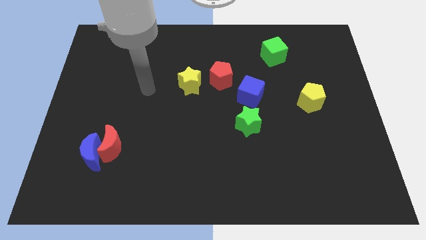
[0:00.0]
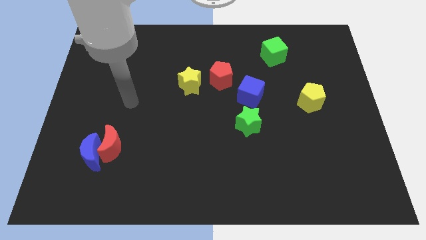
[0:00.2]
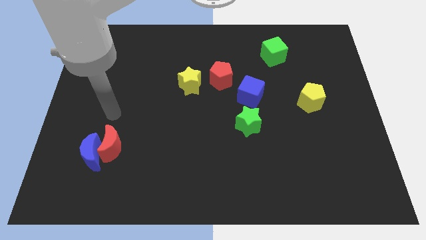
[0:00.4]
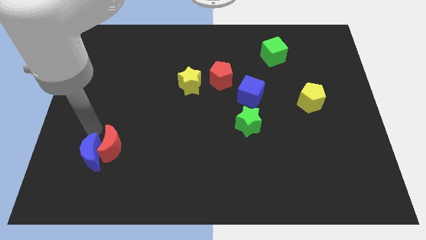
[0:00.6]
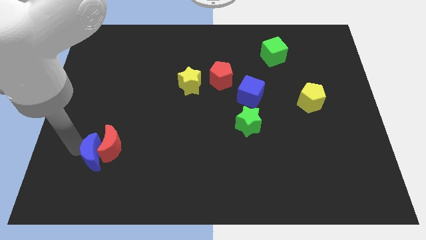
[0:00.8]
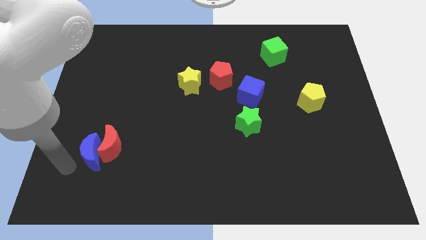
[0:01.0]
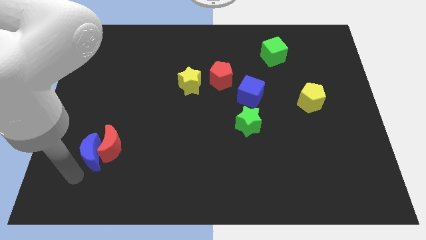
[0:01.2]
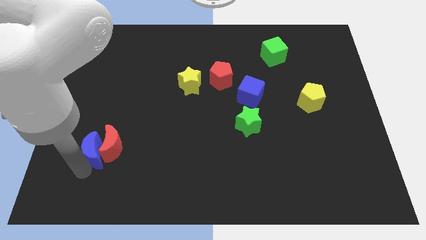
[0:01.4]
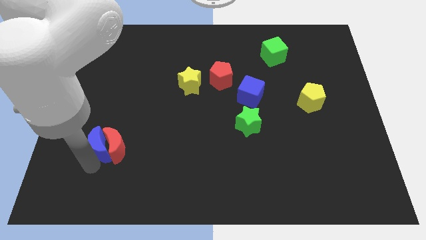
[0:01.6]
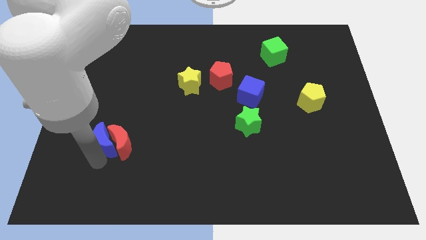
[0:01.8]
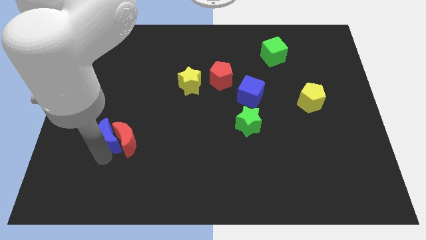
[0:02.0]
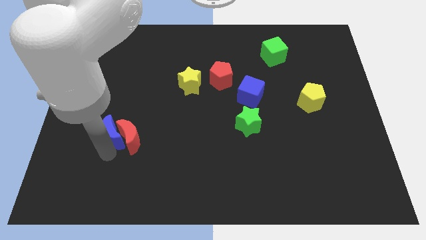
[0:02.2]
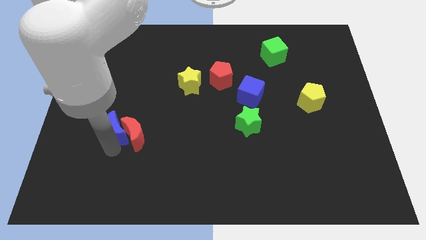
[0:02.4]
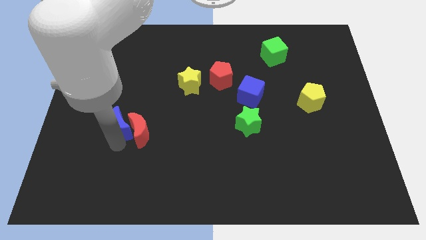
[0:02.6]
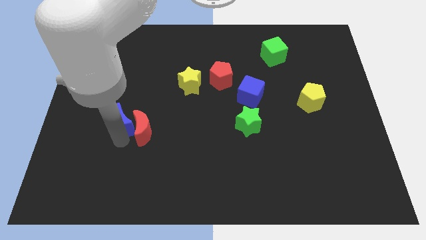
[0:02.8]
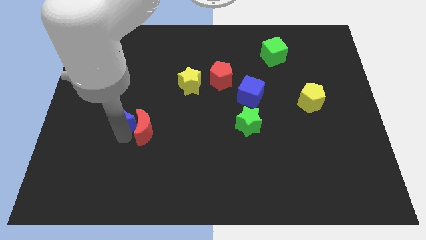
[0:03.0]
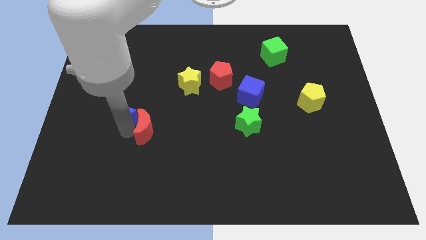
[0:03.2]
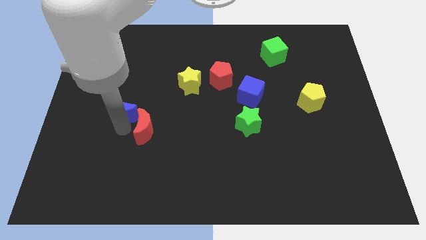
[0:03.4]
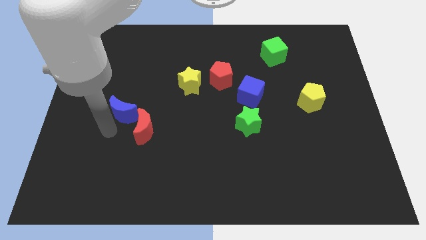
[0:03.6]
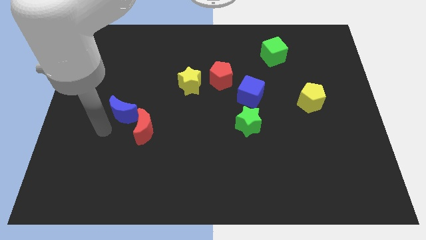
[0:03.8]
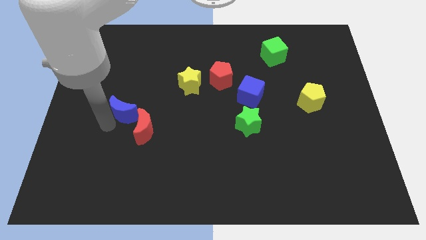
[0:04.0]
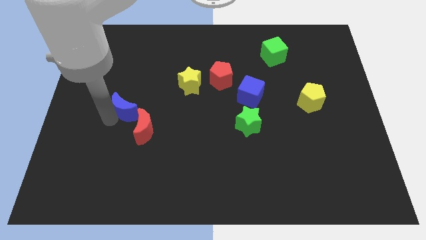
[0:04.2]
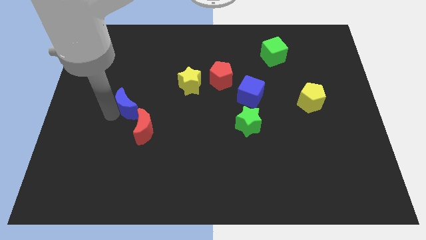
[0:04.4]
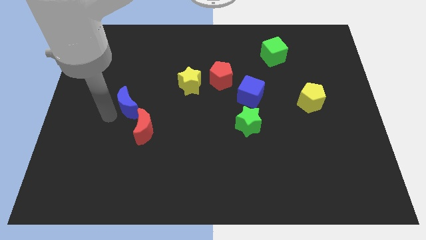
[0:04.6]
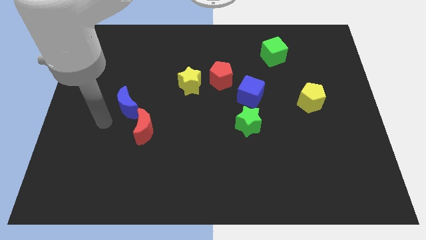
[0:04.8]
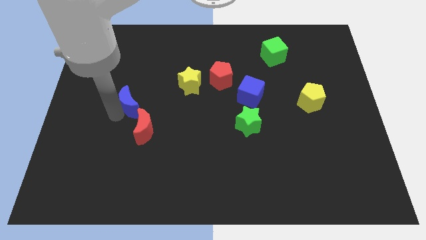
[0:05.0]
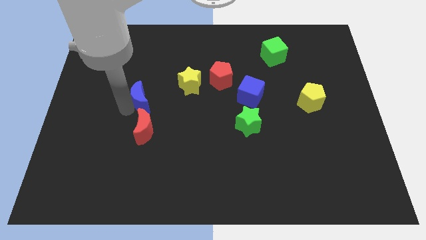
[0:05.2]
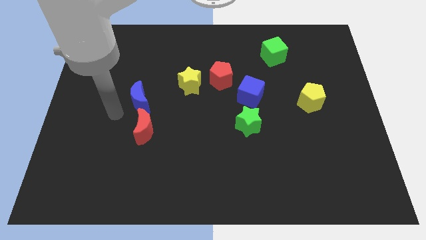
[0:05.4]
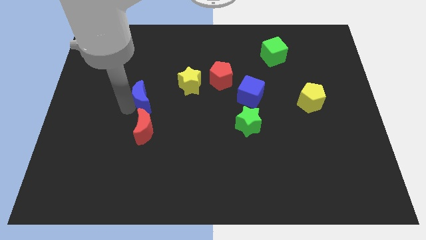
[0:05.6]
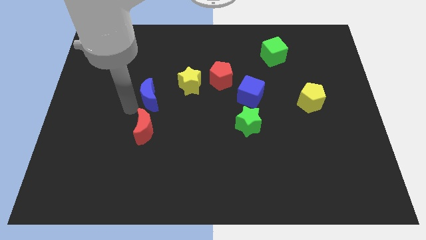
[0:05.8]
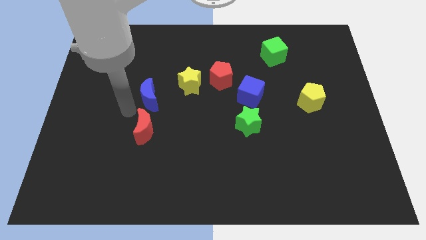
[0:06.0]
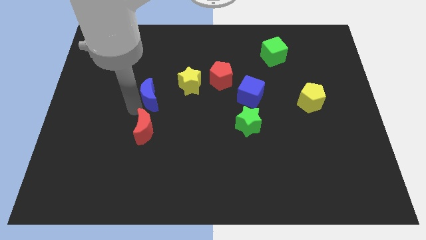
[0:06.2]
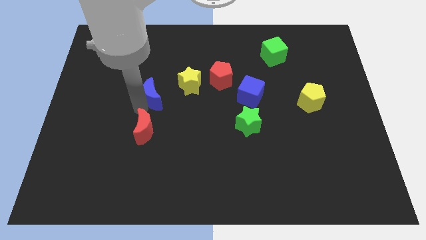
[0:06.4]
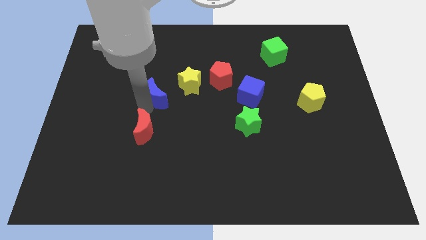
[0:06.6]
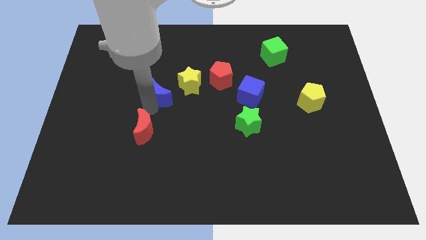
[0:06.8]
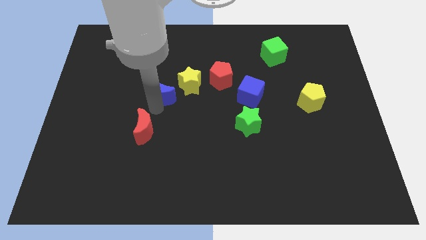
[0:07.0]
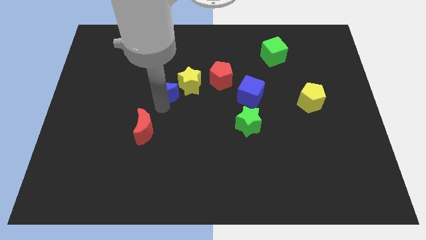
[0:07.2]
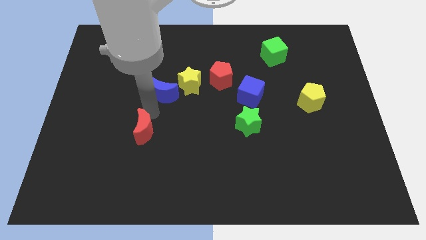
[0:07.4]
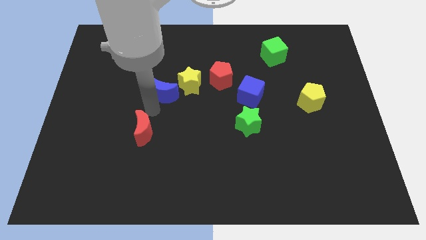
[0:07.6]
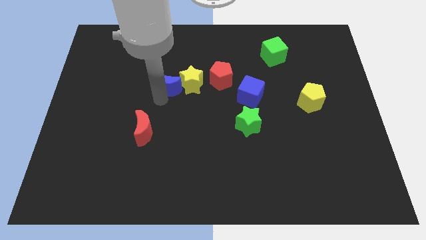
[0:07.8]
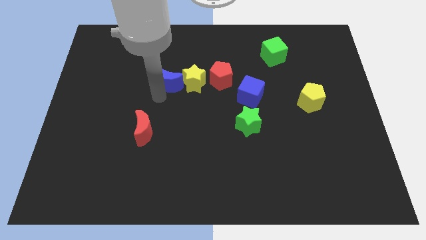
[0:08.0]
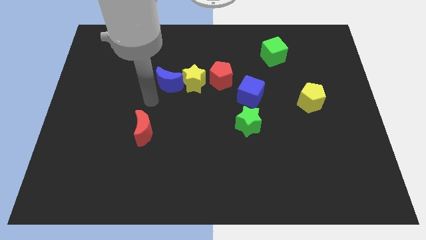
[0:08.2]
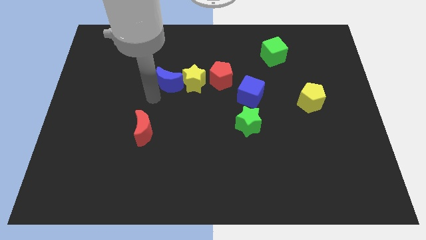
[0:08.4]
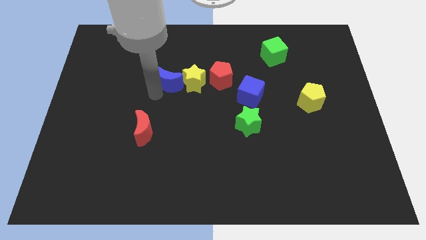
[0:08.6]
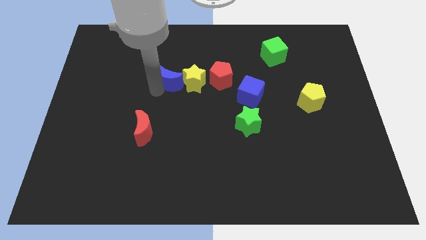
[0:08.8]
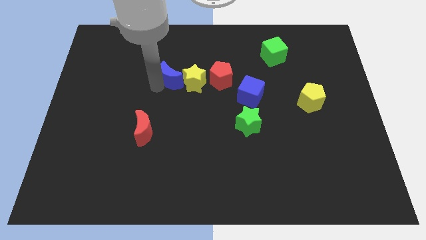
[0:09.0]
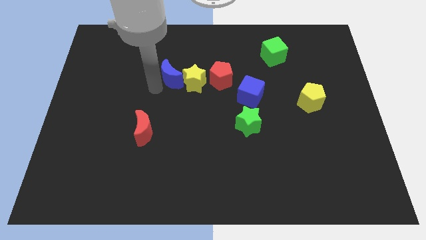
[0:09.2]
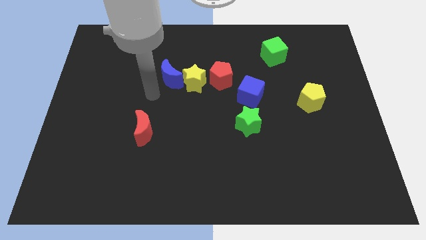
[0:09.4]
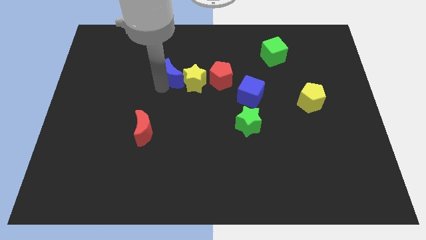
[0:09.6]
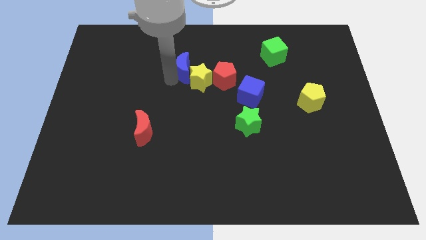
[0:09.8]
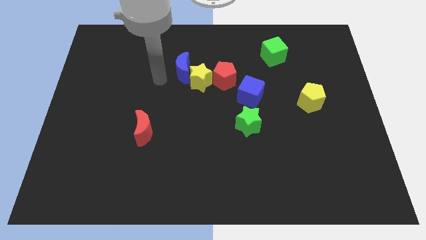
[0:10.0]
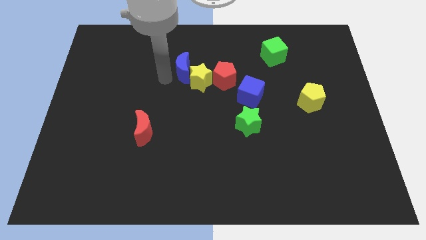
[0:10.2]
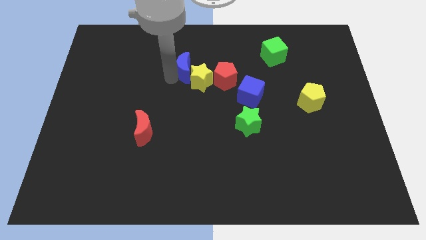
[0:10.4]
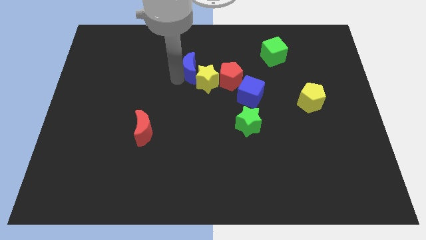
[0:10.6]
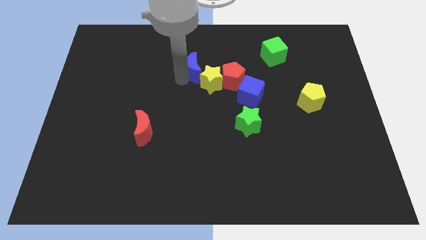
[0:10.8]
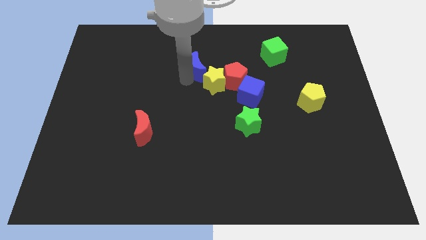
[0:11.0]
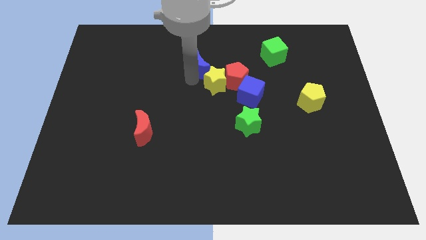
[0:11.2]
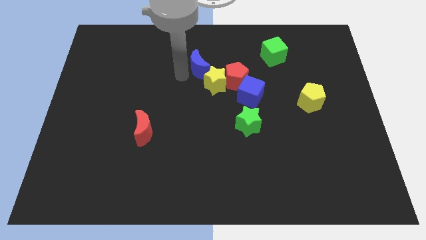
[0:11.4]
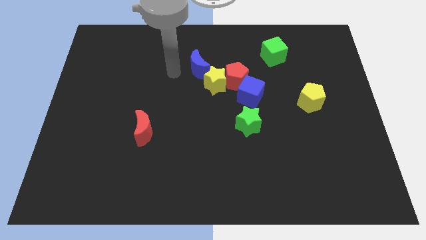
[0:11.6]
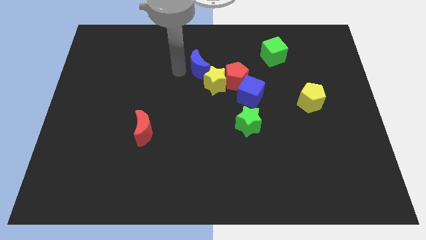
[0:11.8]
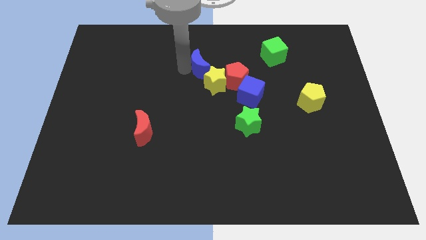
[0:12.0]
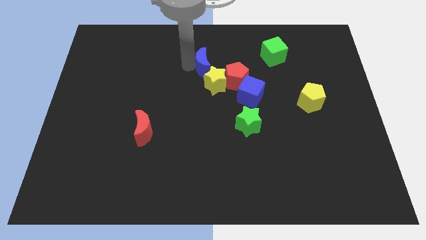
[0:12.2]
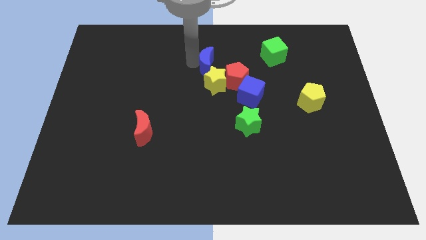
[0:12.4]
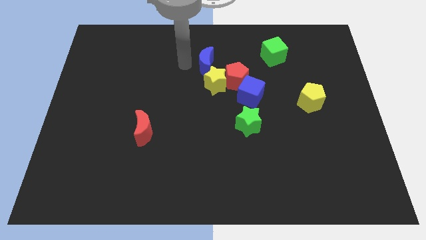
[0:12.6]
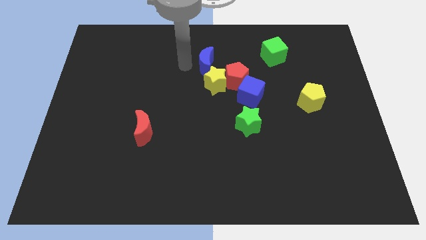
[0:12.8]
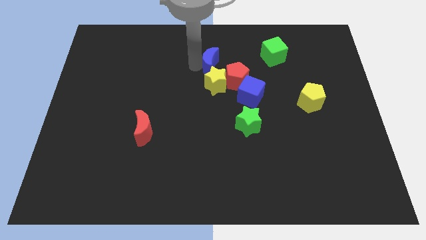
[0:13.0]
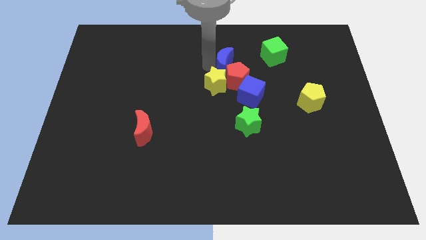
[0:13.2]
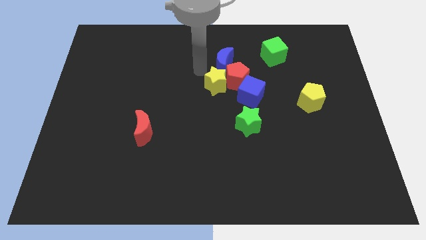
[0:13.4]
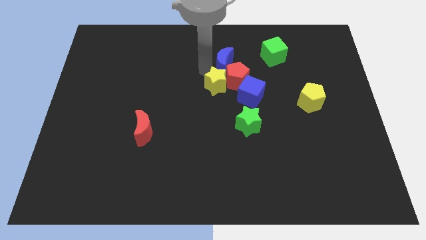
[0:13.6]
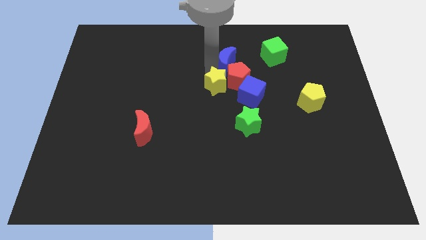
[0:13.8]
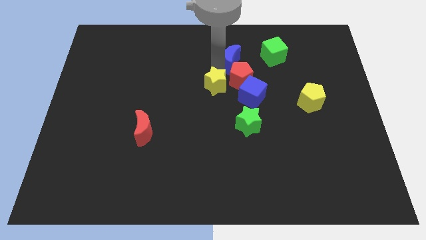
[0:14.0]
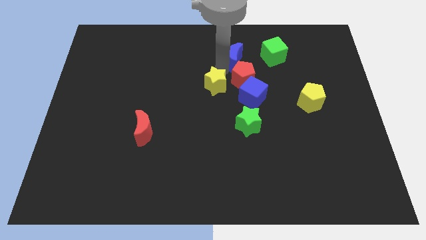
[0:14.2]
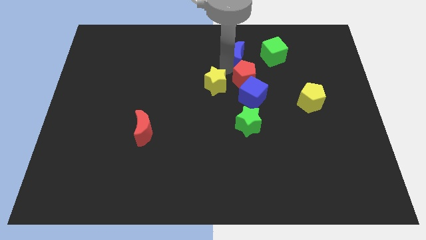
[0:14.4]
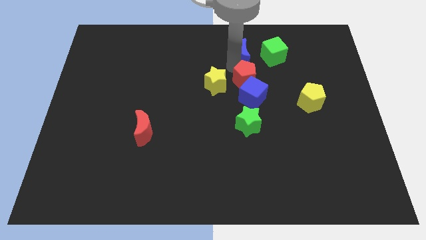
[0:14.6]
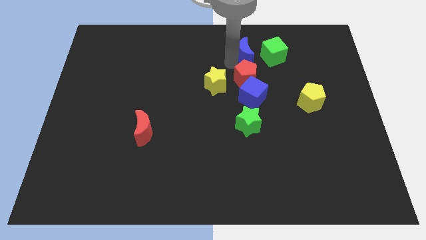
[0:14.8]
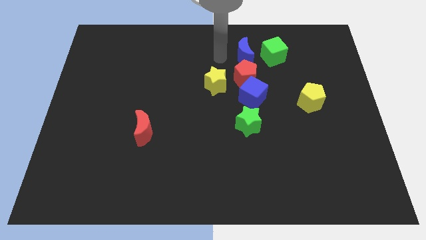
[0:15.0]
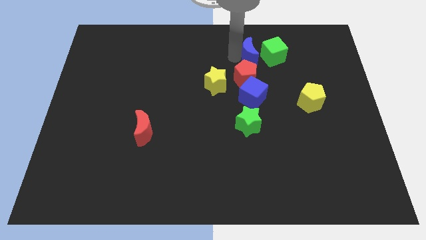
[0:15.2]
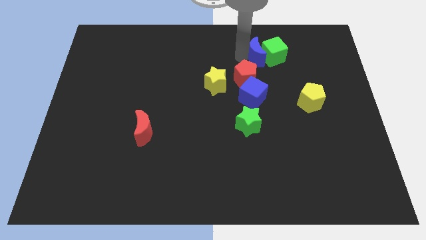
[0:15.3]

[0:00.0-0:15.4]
slide the blue moon towards the green cube
